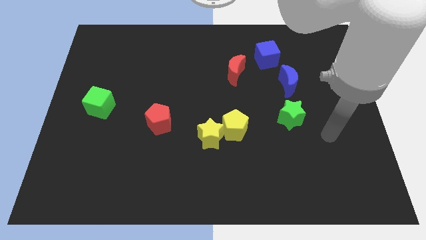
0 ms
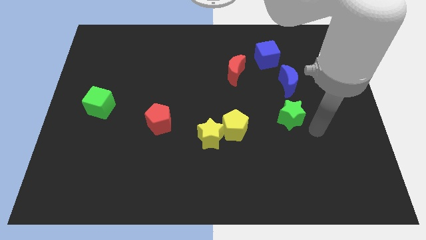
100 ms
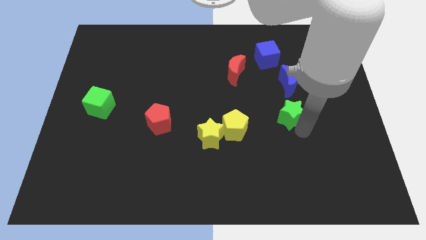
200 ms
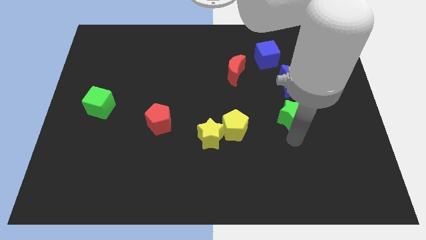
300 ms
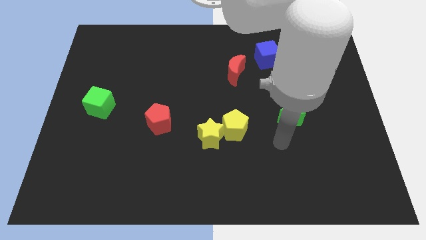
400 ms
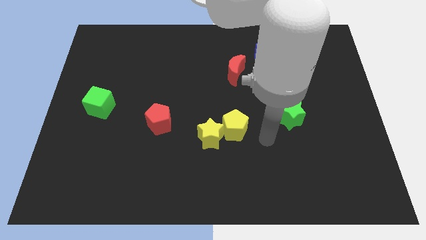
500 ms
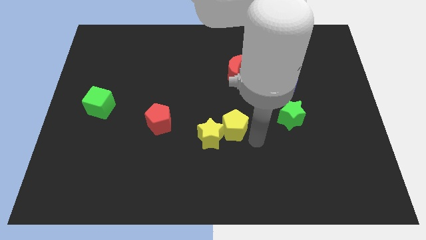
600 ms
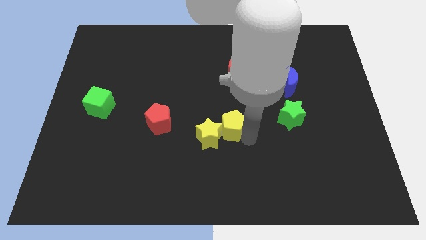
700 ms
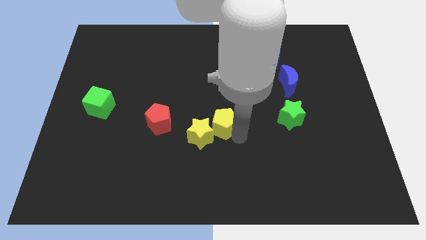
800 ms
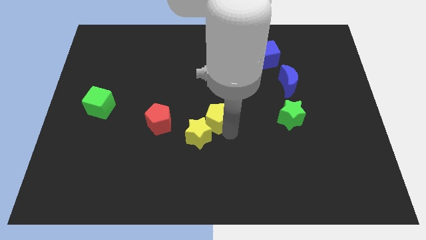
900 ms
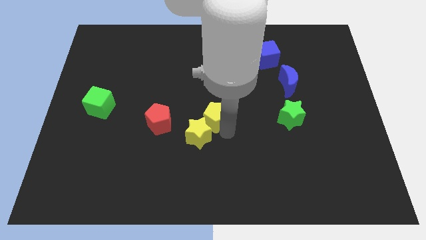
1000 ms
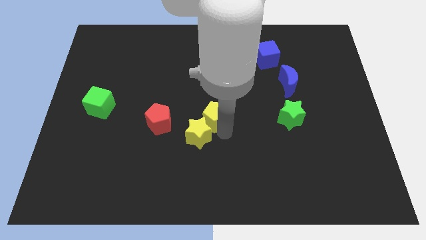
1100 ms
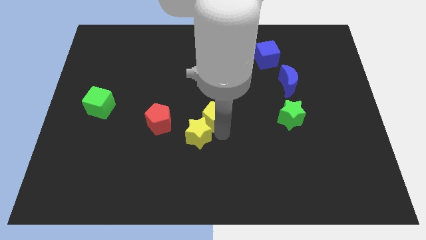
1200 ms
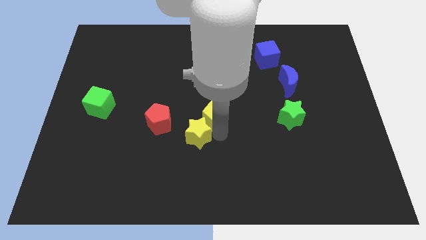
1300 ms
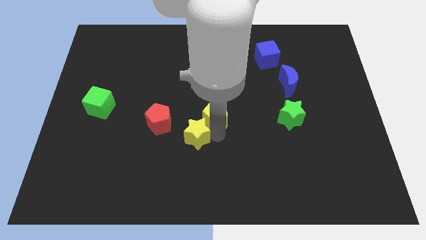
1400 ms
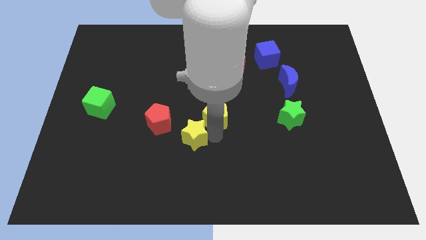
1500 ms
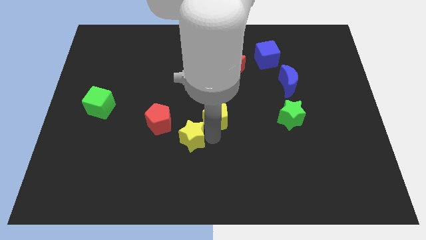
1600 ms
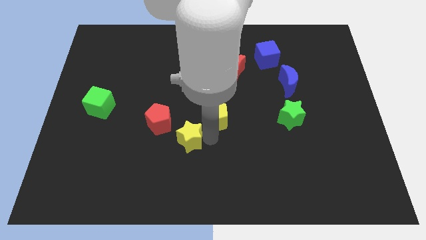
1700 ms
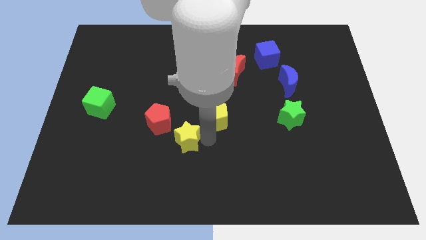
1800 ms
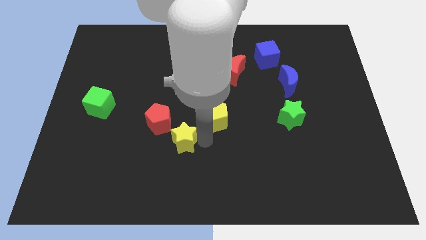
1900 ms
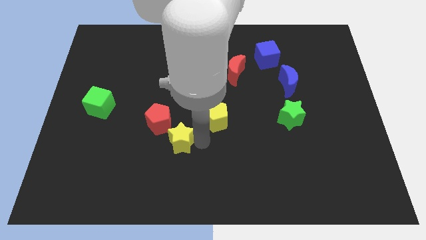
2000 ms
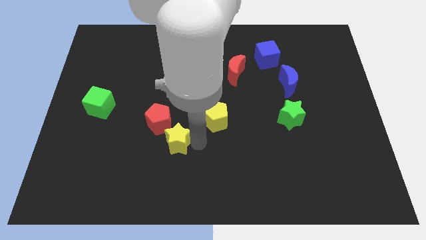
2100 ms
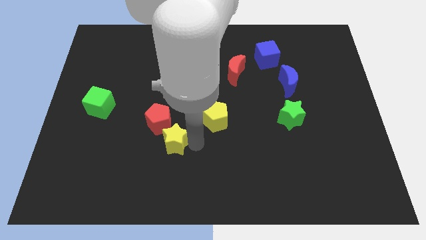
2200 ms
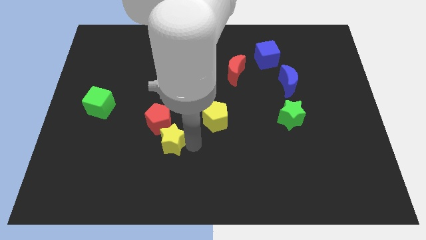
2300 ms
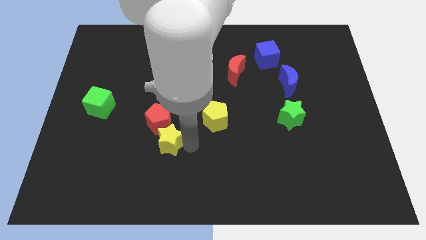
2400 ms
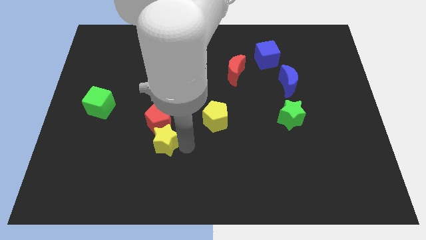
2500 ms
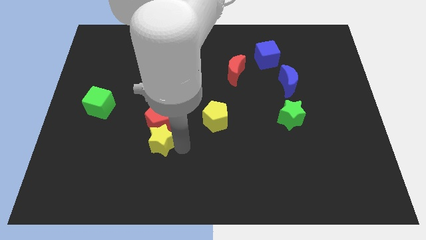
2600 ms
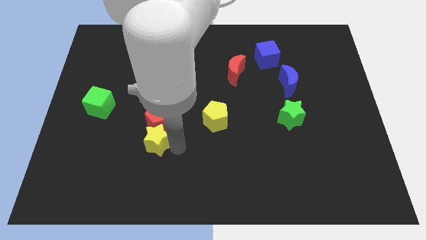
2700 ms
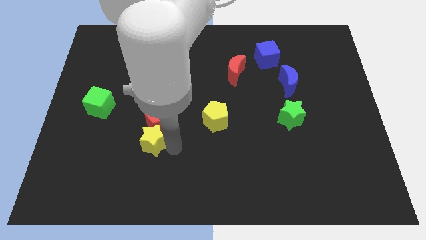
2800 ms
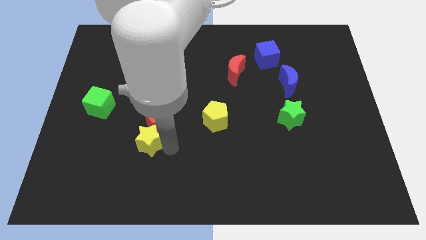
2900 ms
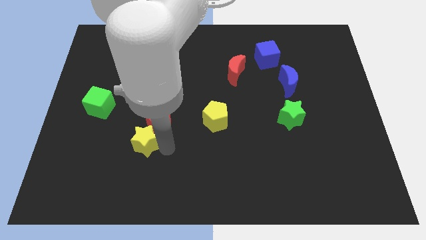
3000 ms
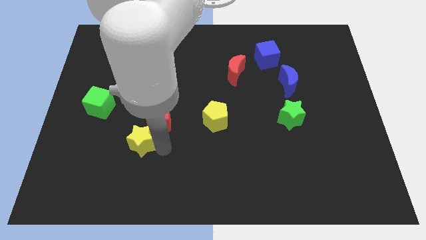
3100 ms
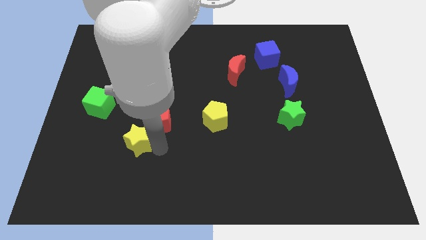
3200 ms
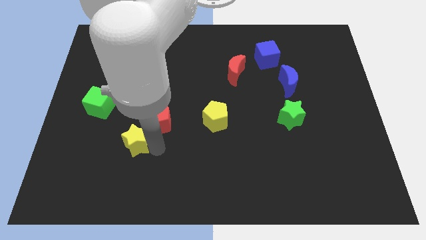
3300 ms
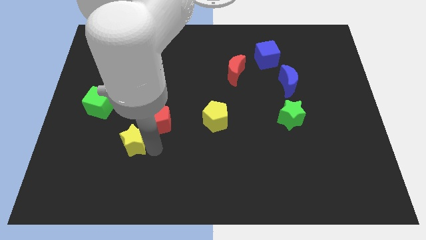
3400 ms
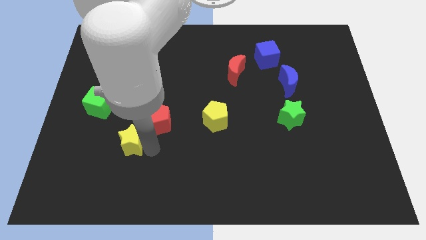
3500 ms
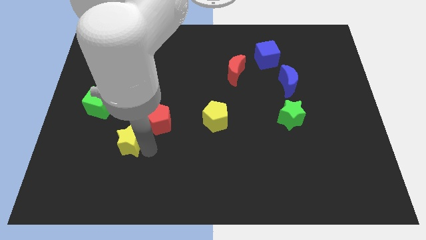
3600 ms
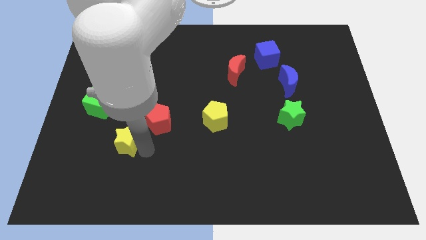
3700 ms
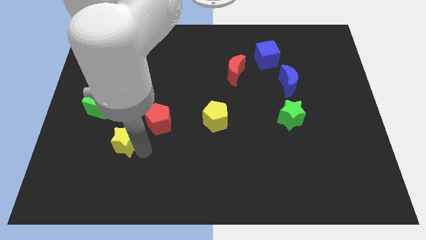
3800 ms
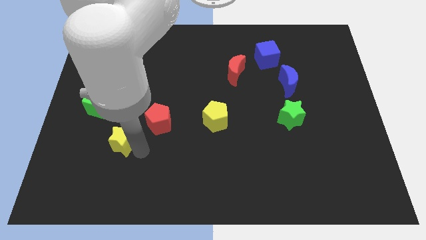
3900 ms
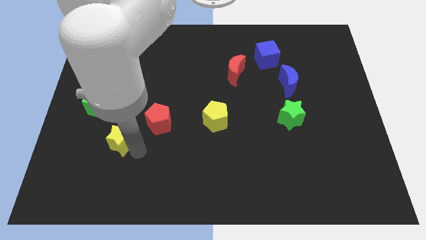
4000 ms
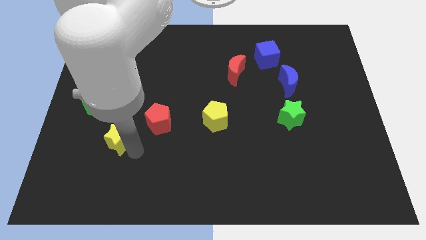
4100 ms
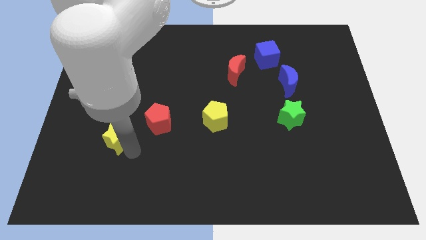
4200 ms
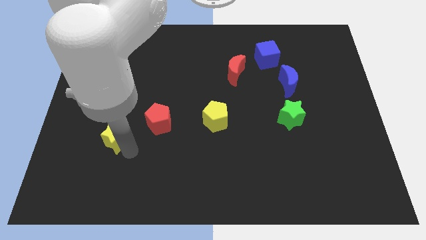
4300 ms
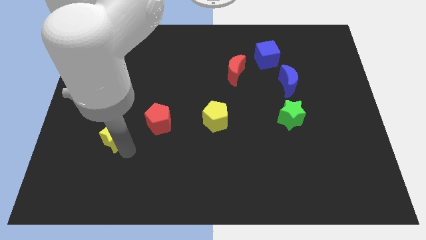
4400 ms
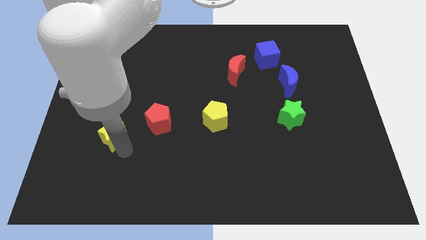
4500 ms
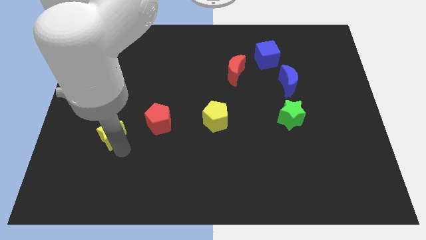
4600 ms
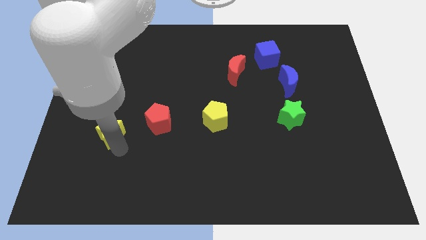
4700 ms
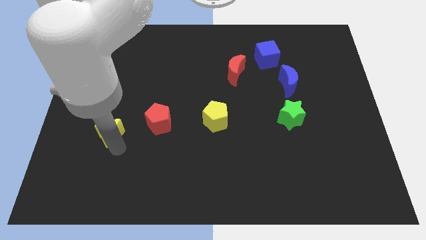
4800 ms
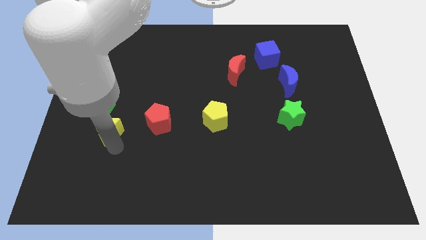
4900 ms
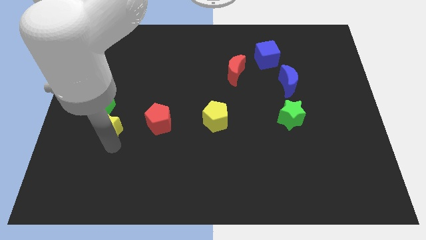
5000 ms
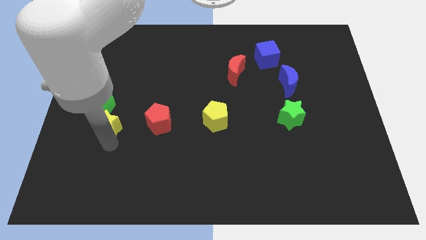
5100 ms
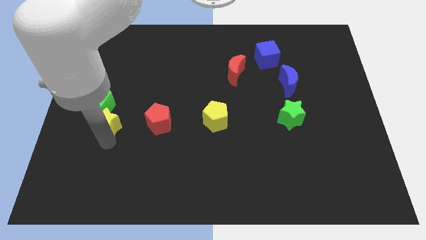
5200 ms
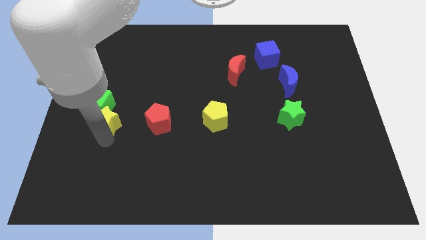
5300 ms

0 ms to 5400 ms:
slide the yellow star next to the green cube

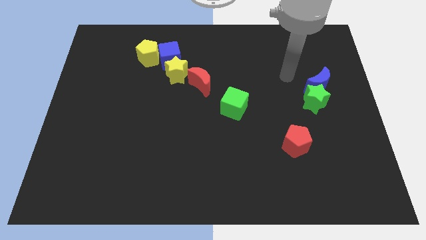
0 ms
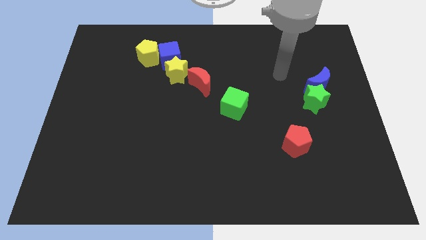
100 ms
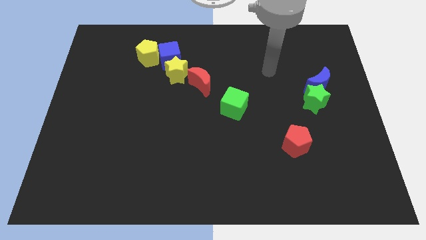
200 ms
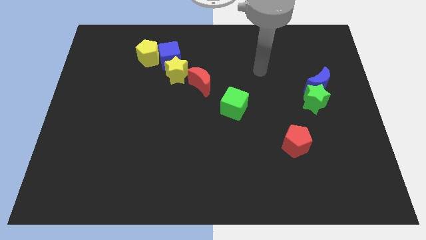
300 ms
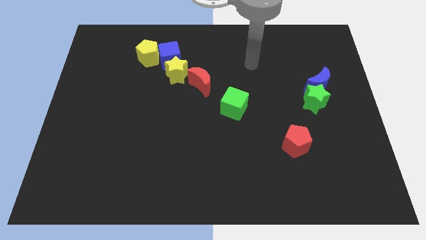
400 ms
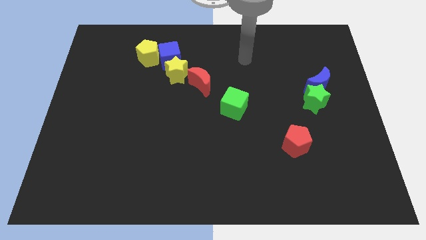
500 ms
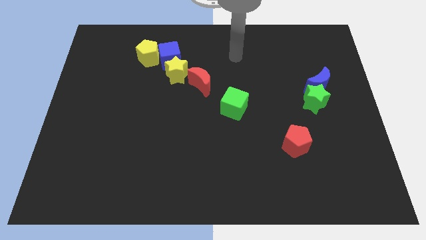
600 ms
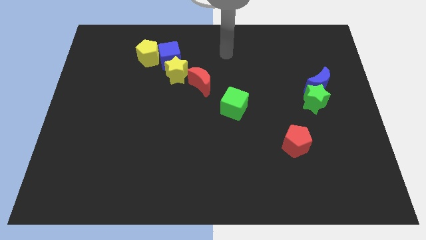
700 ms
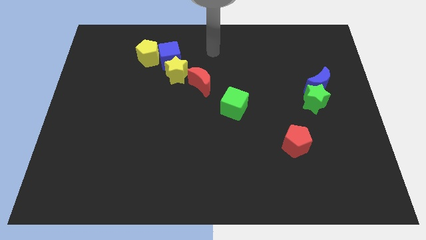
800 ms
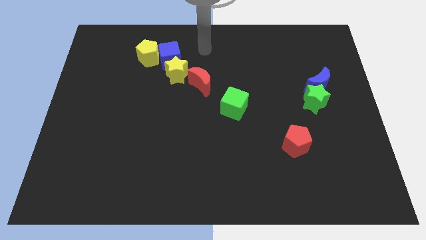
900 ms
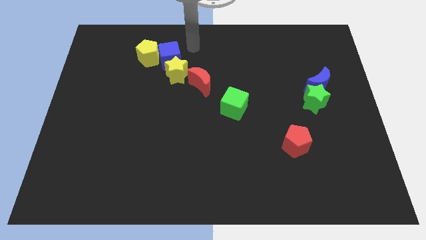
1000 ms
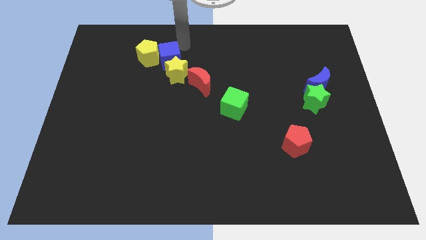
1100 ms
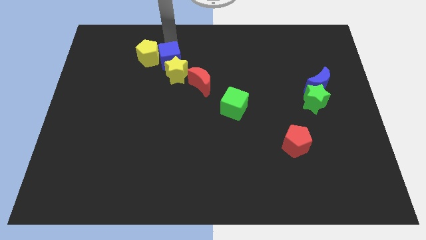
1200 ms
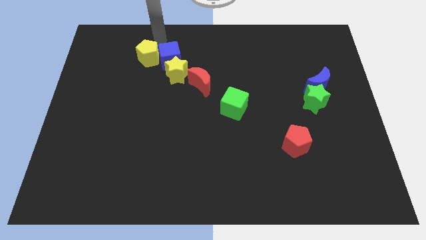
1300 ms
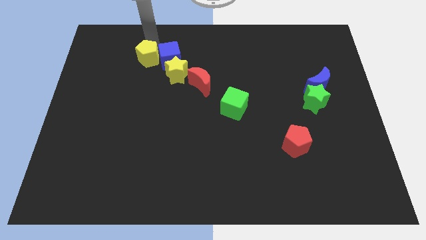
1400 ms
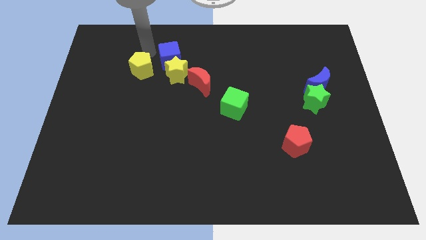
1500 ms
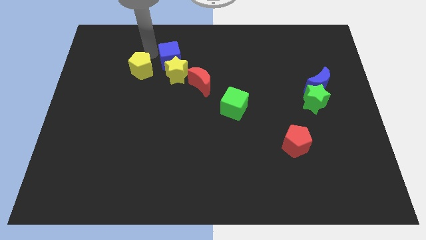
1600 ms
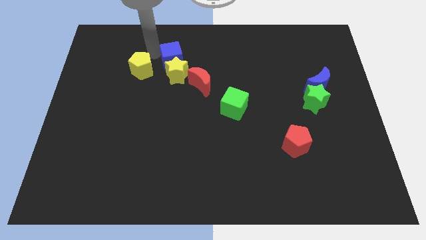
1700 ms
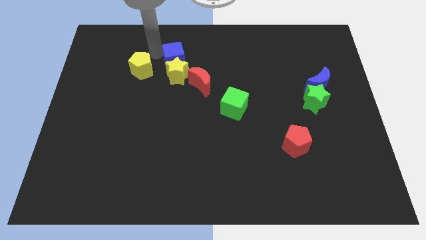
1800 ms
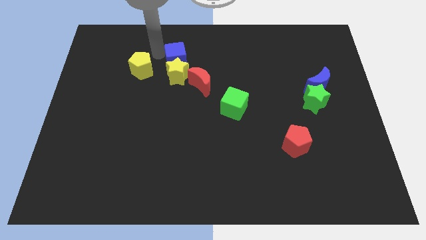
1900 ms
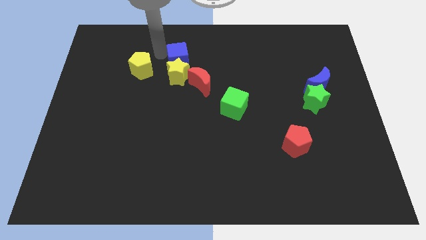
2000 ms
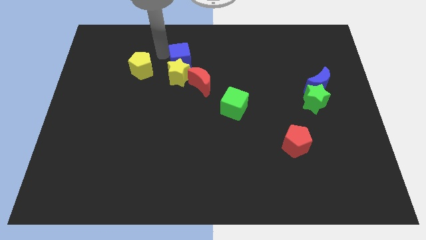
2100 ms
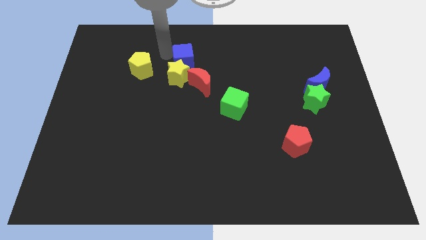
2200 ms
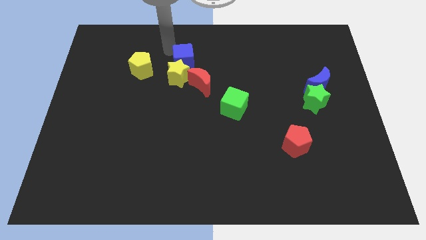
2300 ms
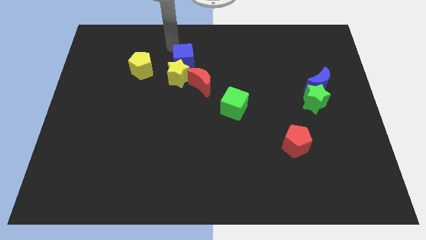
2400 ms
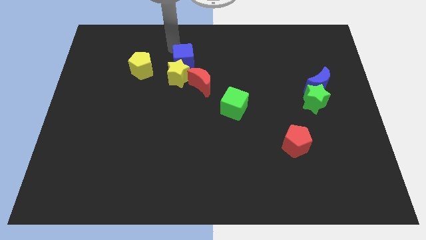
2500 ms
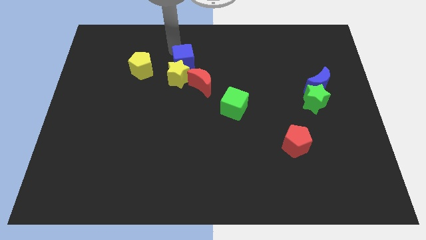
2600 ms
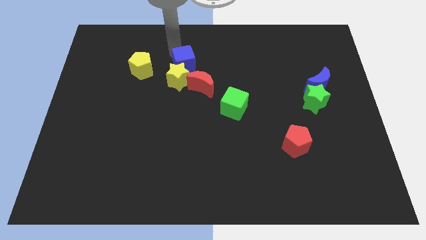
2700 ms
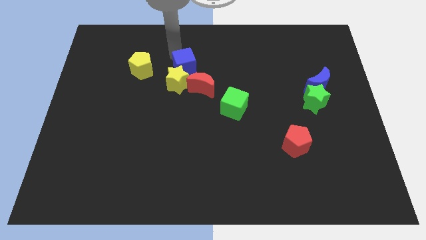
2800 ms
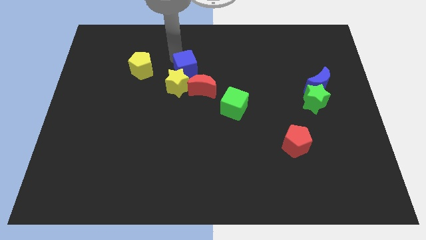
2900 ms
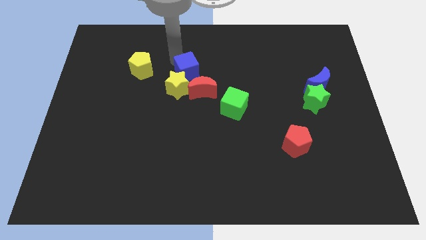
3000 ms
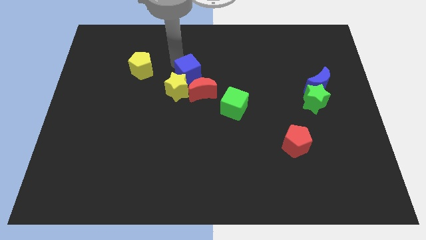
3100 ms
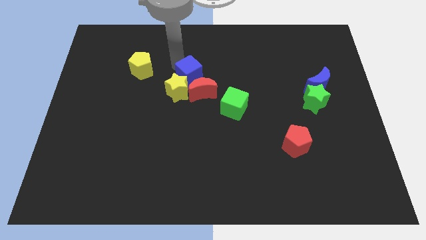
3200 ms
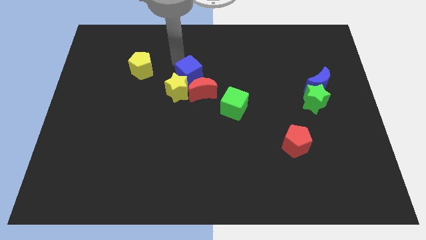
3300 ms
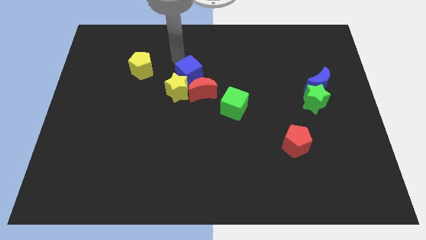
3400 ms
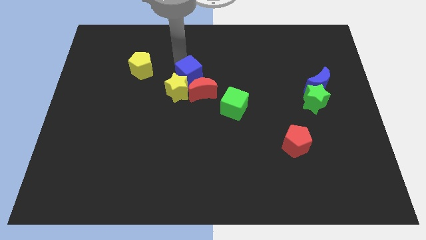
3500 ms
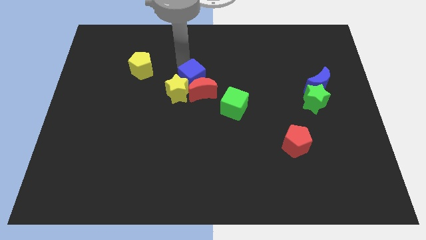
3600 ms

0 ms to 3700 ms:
slide the blue cube towards the red moon
